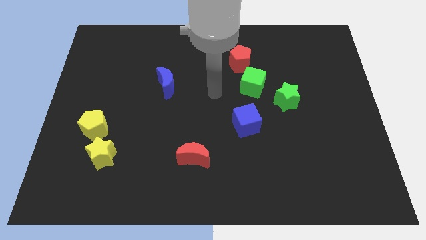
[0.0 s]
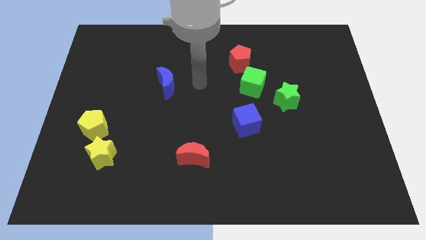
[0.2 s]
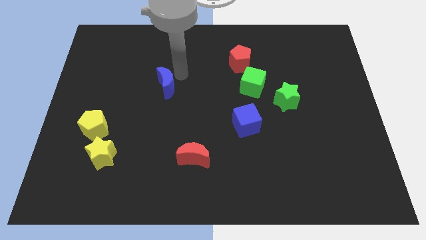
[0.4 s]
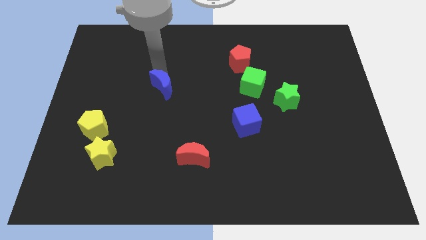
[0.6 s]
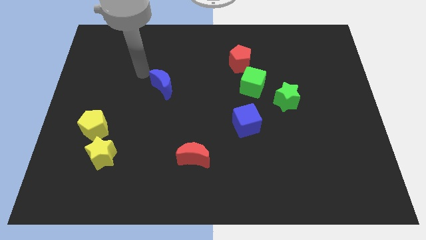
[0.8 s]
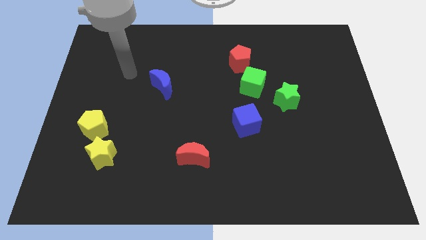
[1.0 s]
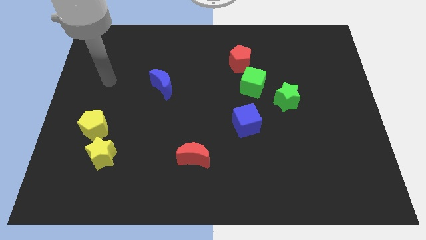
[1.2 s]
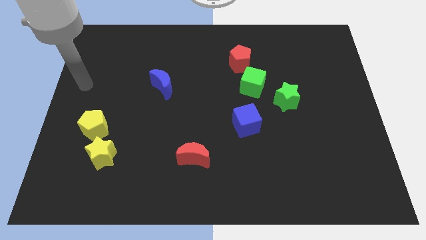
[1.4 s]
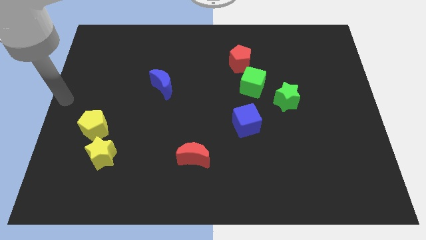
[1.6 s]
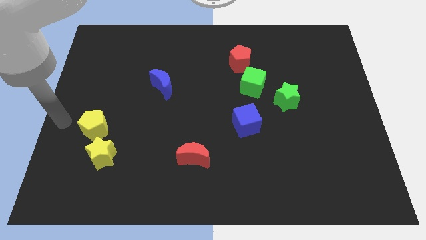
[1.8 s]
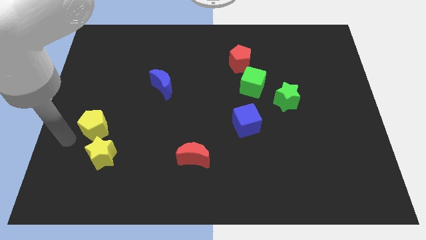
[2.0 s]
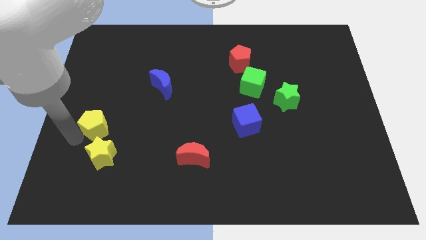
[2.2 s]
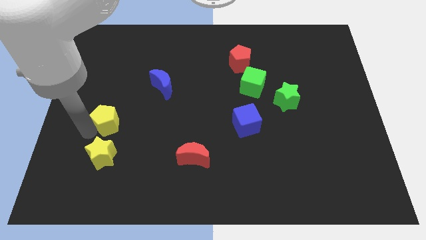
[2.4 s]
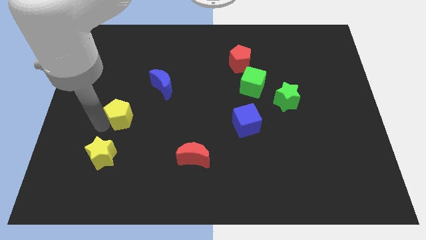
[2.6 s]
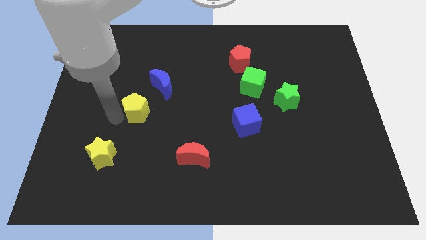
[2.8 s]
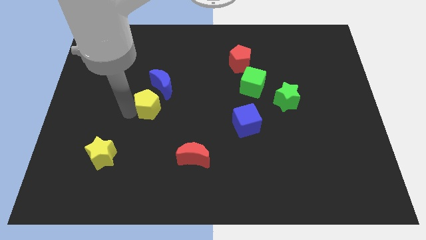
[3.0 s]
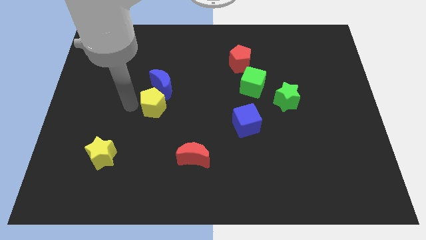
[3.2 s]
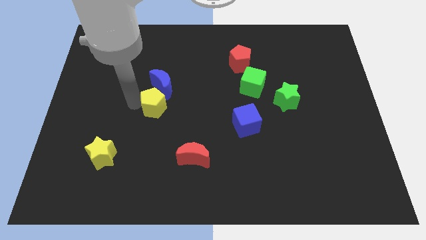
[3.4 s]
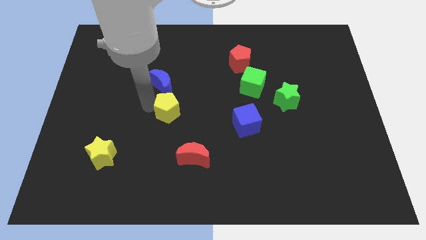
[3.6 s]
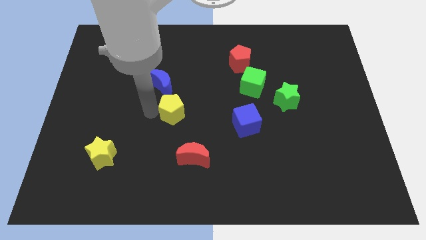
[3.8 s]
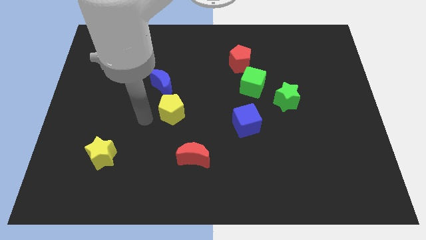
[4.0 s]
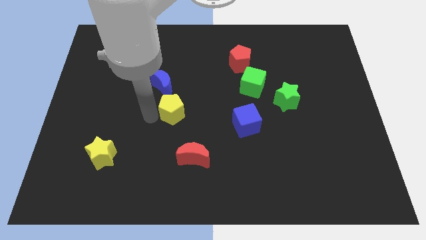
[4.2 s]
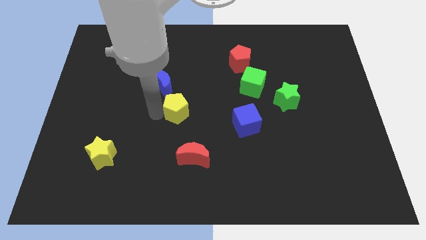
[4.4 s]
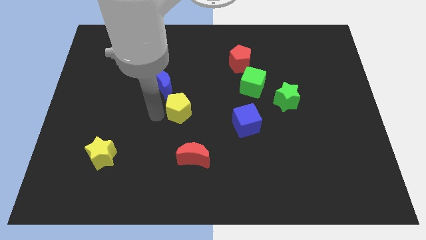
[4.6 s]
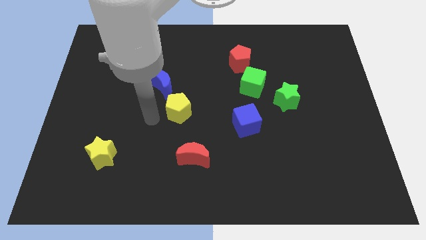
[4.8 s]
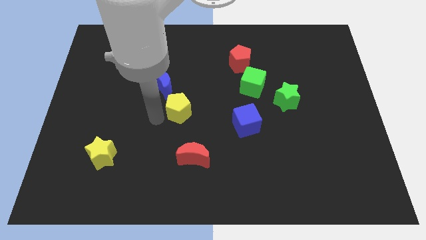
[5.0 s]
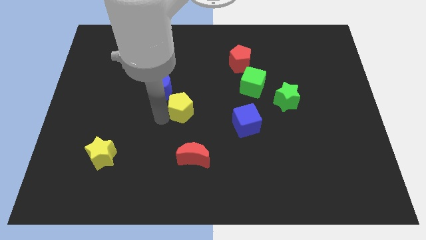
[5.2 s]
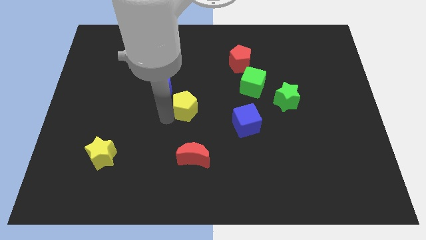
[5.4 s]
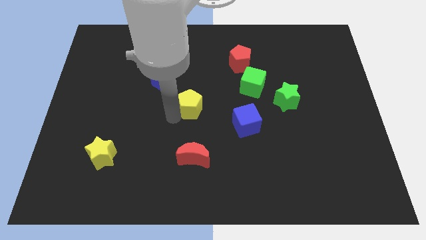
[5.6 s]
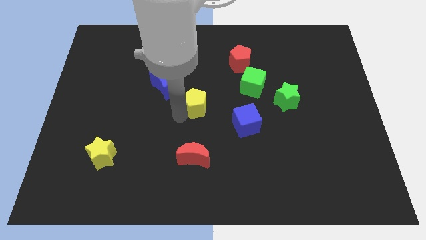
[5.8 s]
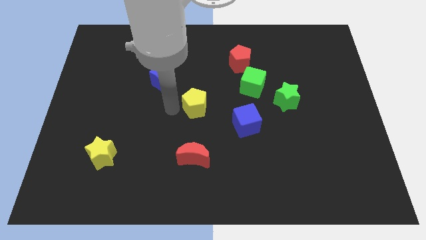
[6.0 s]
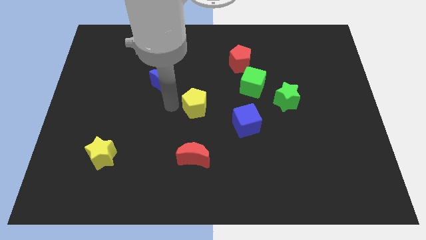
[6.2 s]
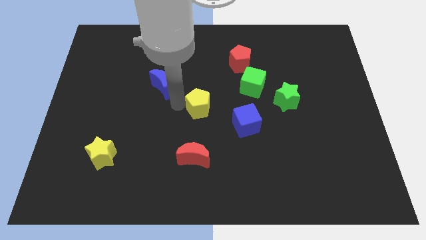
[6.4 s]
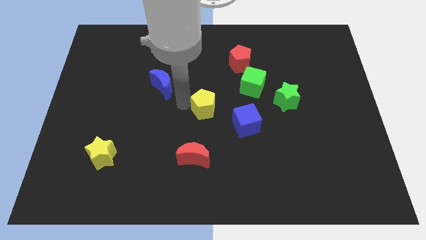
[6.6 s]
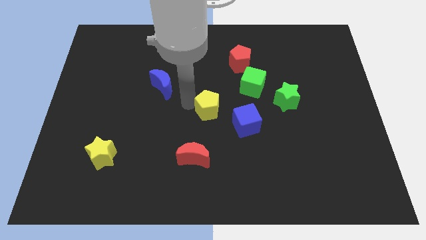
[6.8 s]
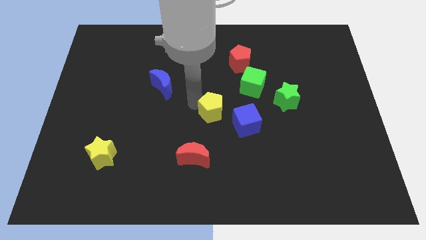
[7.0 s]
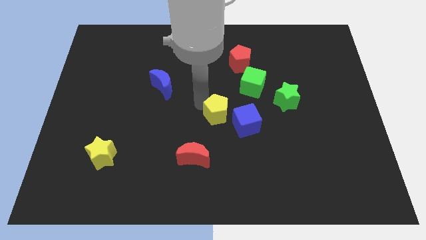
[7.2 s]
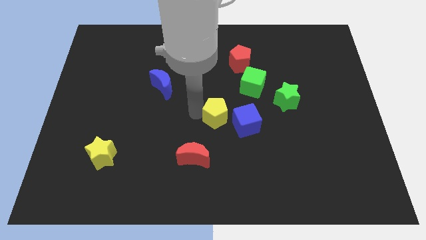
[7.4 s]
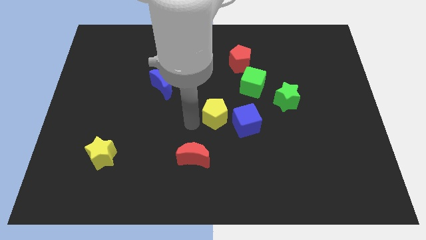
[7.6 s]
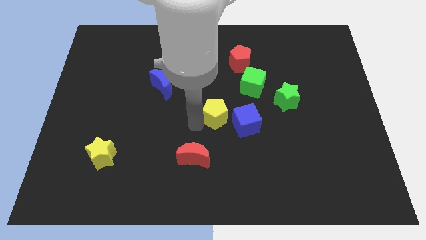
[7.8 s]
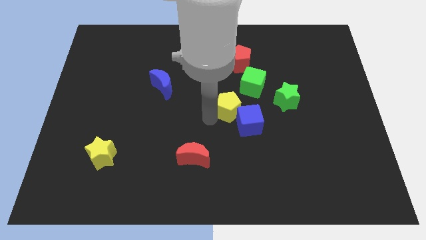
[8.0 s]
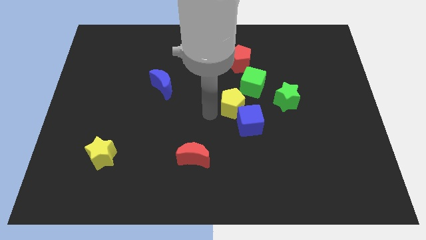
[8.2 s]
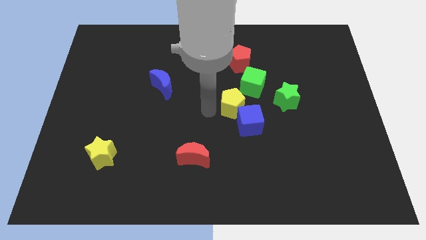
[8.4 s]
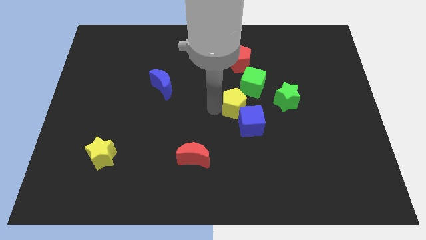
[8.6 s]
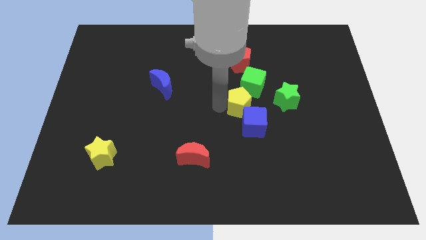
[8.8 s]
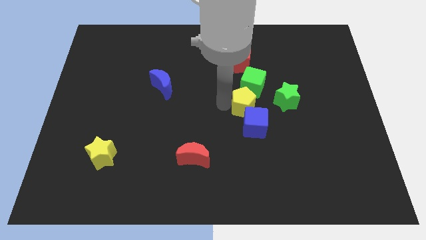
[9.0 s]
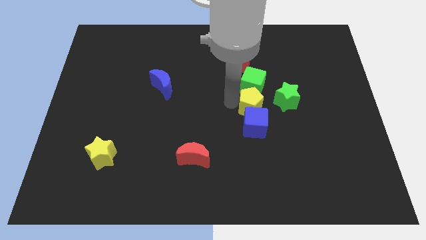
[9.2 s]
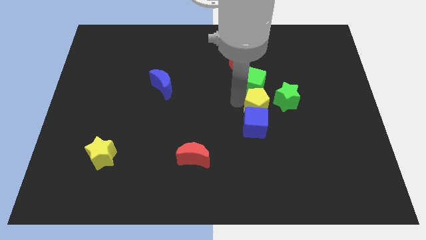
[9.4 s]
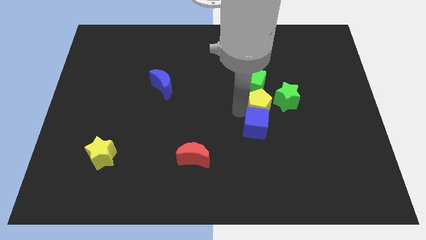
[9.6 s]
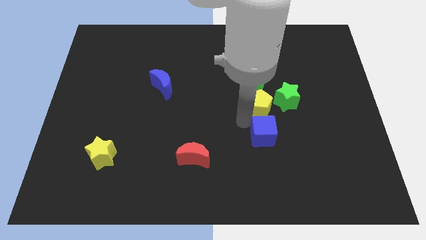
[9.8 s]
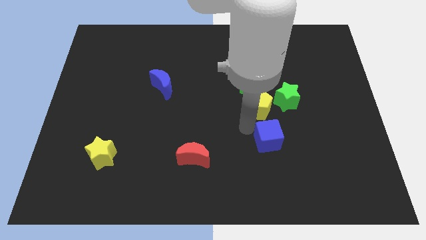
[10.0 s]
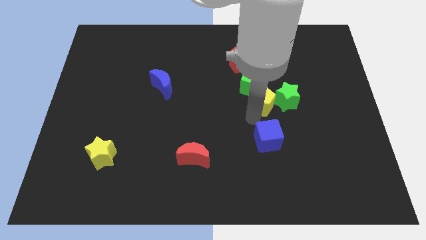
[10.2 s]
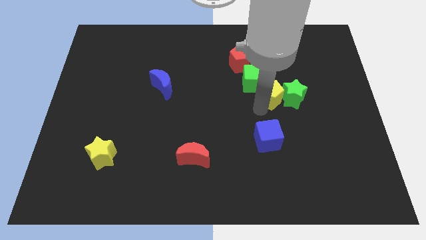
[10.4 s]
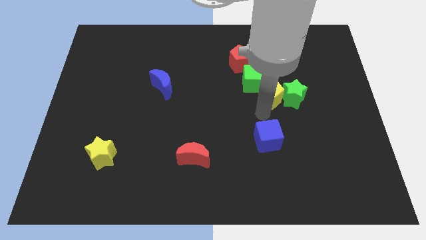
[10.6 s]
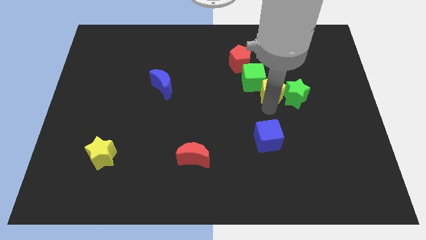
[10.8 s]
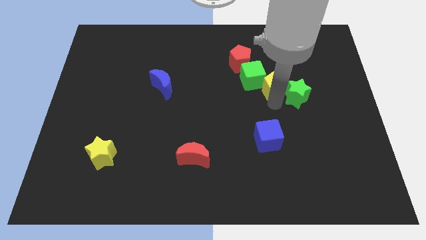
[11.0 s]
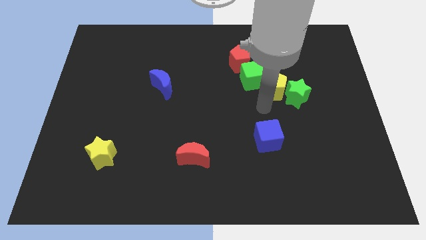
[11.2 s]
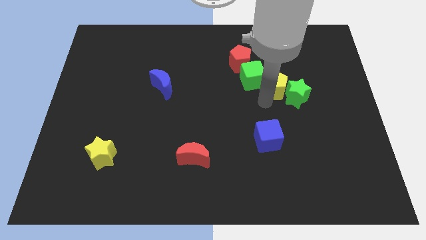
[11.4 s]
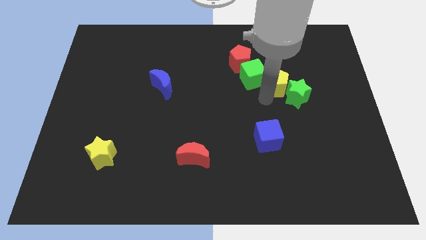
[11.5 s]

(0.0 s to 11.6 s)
slide the yellow pentagon to the top side of the green star

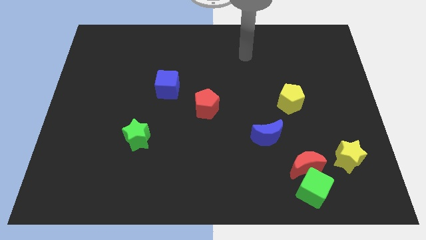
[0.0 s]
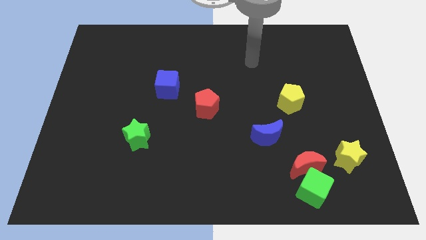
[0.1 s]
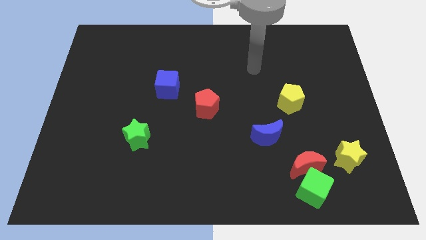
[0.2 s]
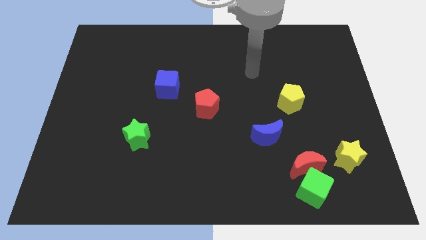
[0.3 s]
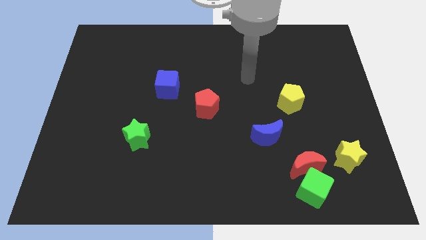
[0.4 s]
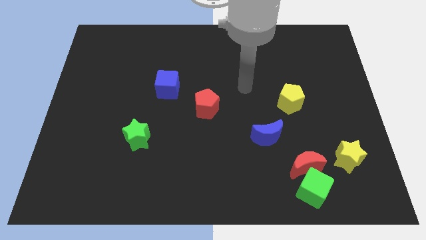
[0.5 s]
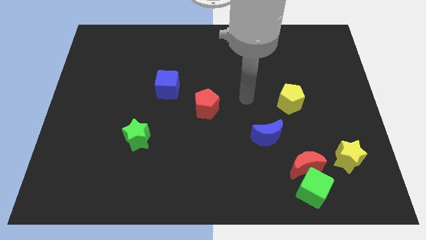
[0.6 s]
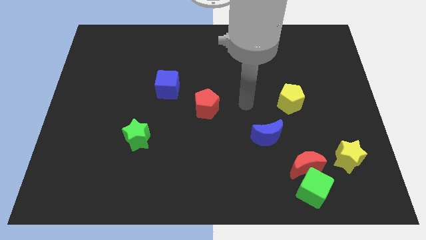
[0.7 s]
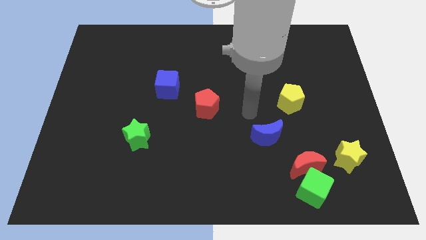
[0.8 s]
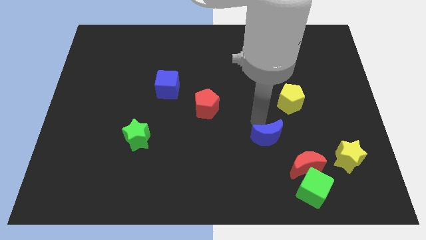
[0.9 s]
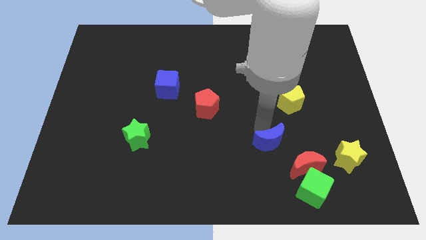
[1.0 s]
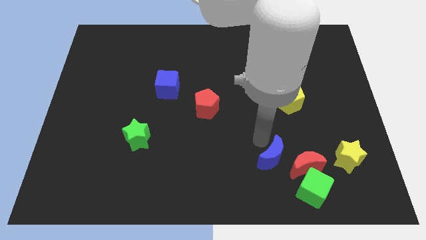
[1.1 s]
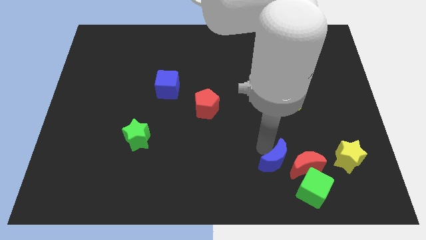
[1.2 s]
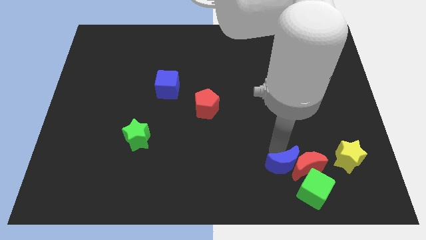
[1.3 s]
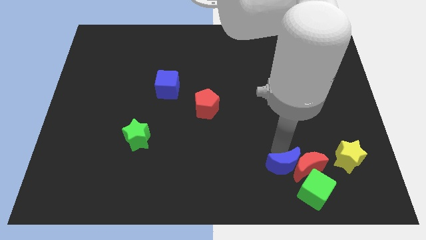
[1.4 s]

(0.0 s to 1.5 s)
put the red moon diagonally down and to the left of the yellow star
